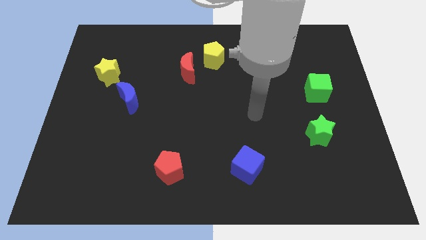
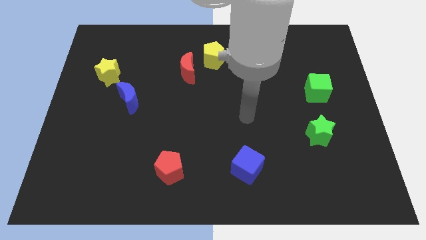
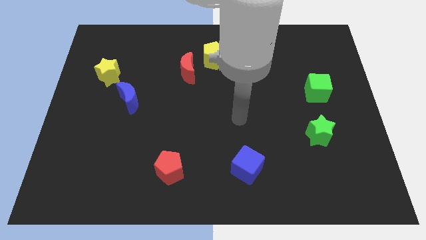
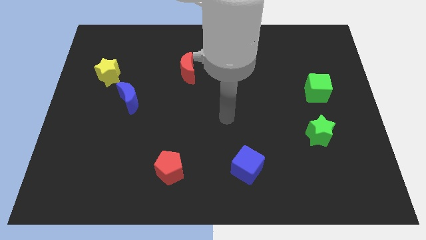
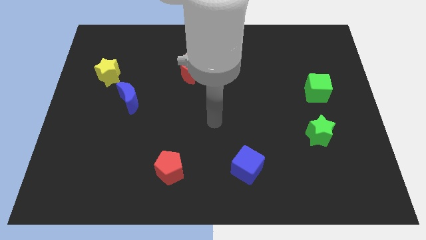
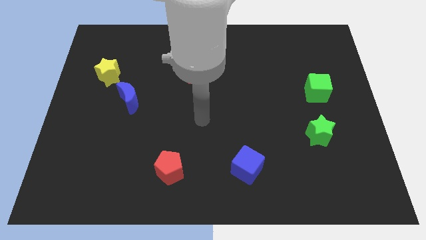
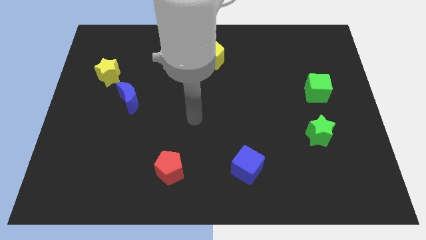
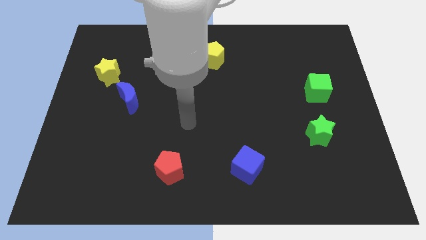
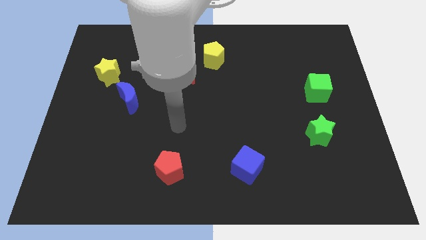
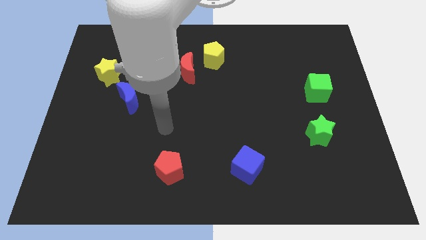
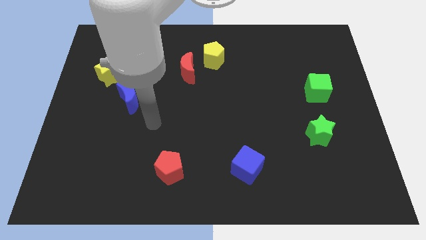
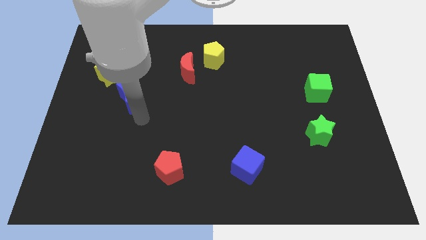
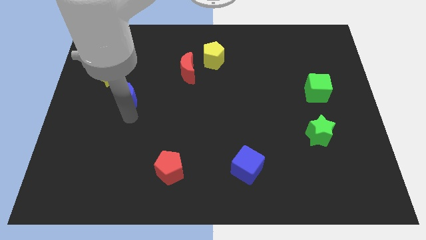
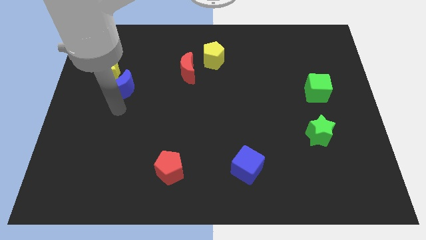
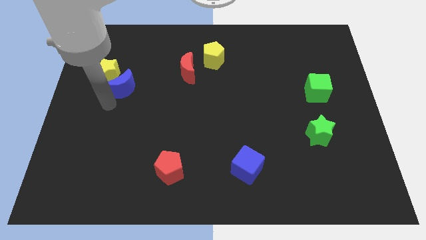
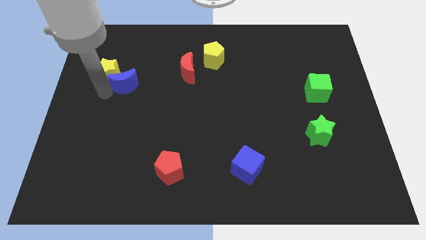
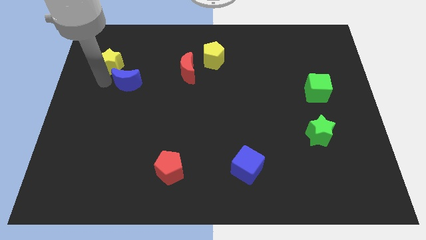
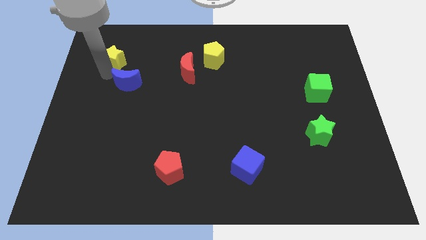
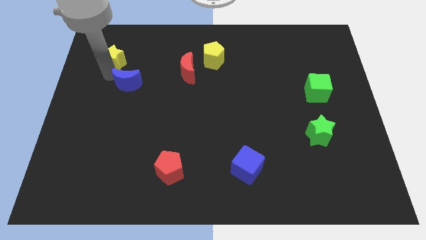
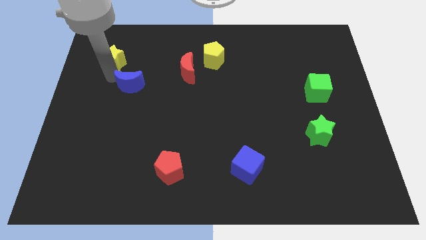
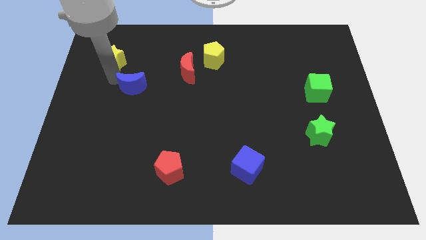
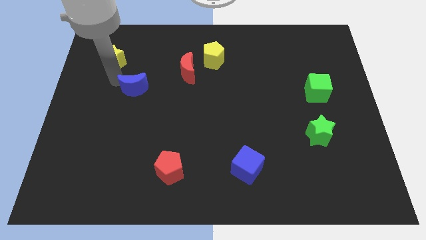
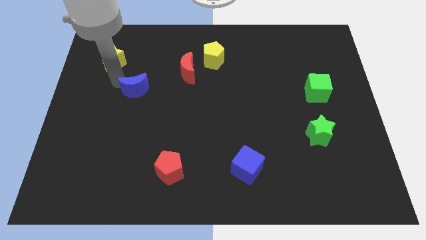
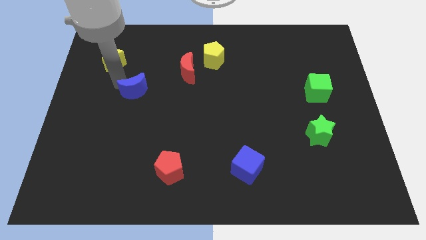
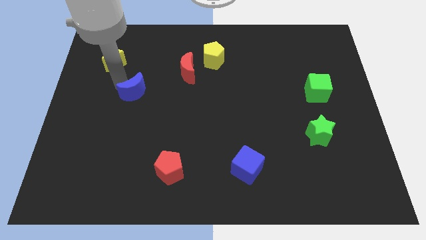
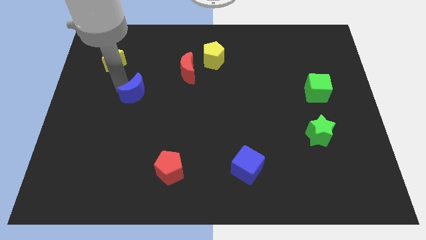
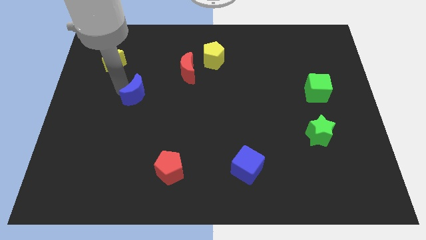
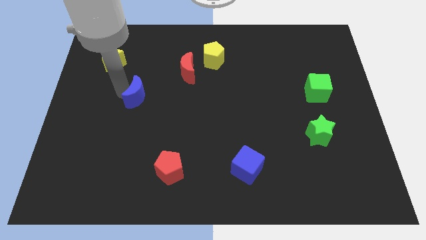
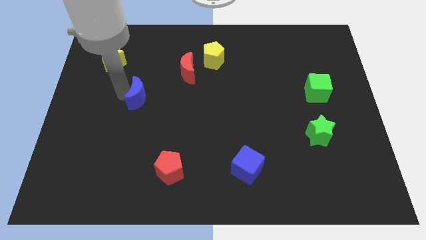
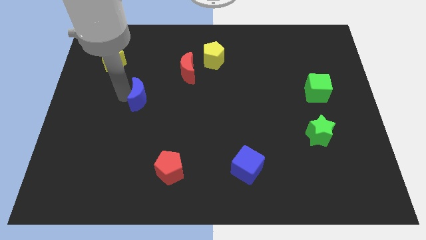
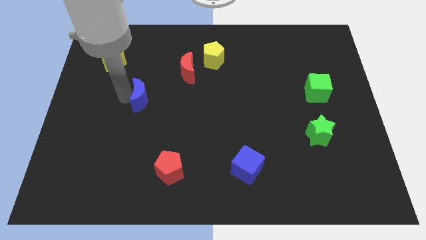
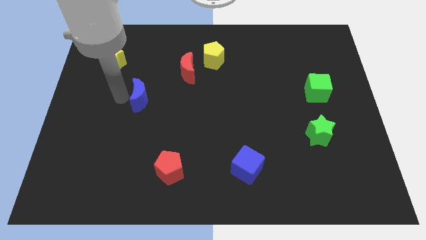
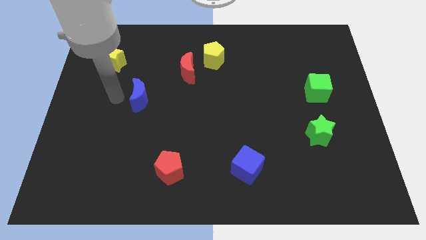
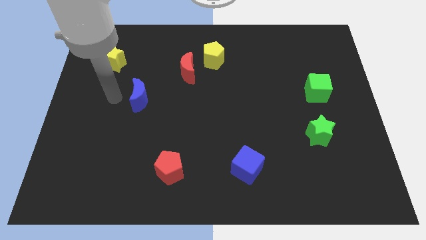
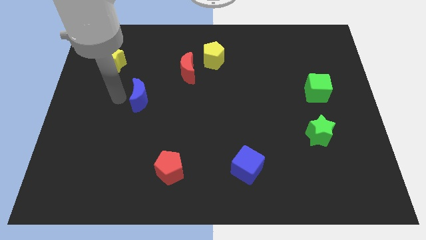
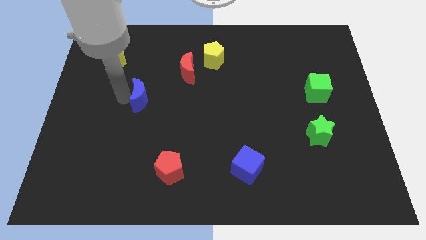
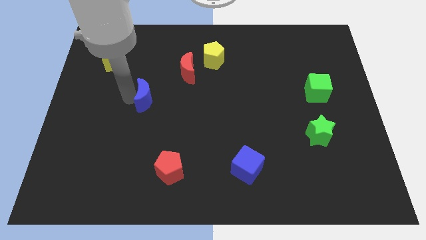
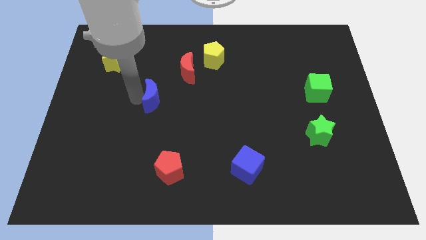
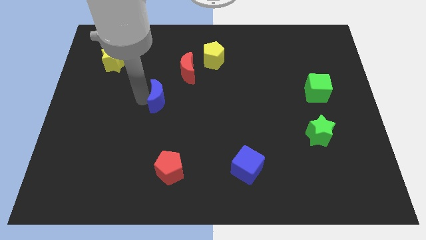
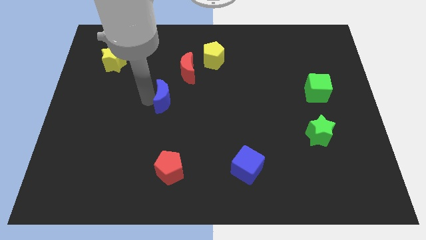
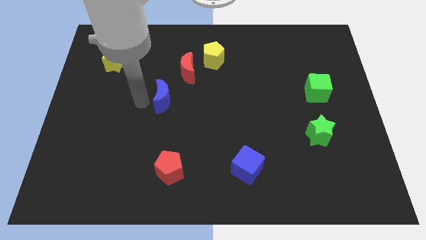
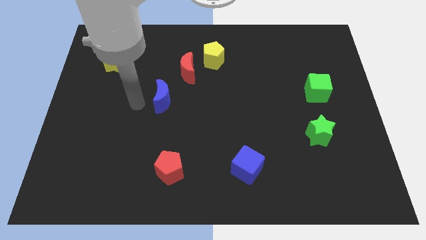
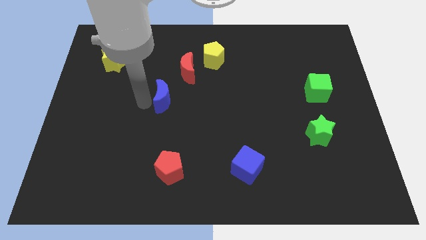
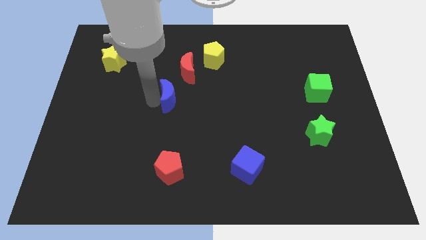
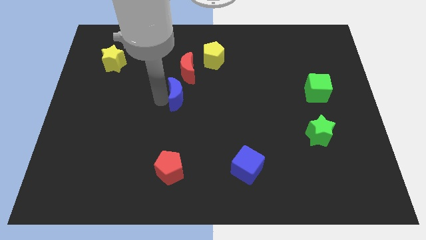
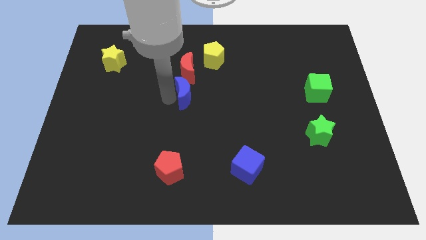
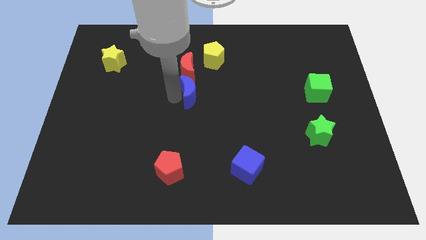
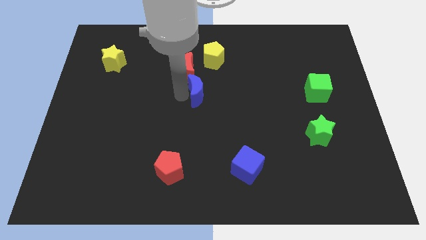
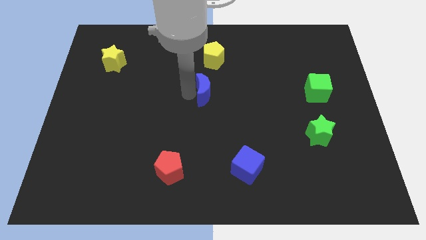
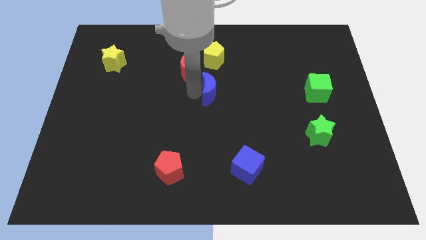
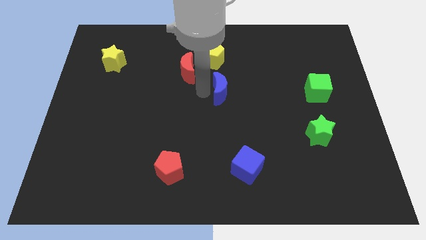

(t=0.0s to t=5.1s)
move the blue moon to the right

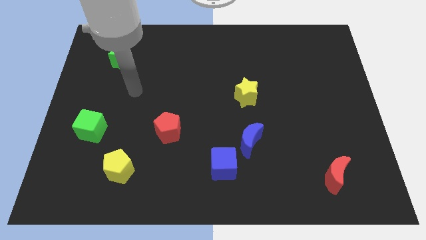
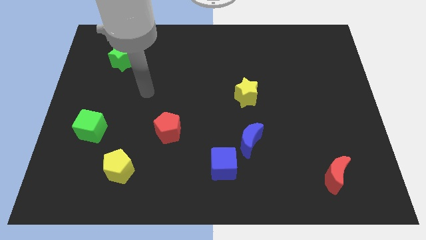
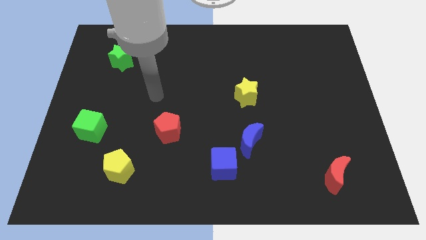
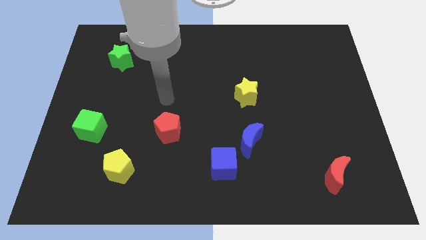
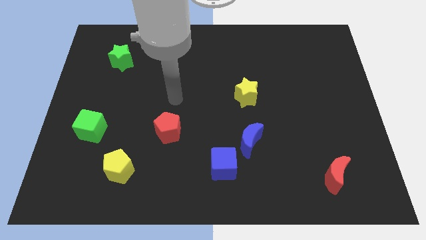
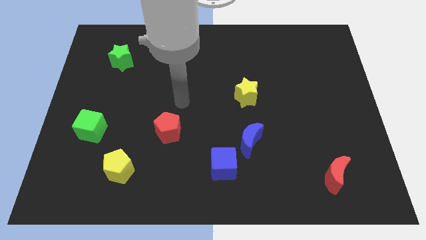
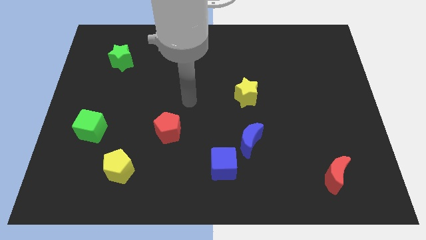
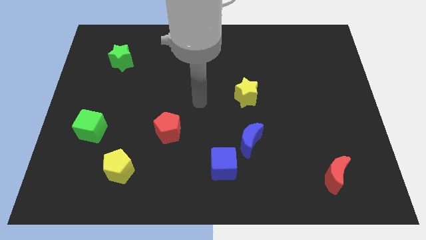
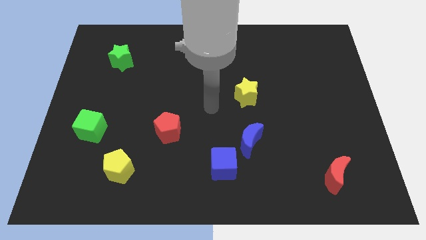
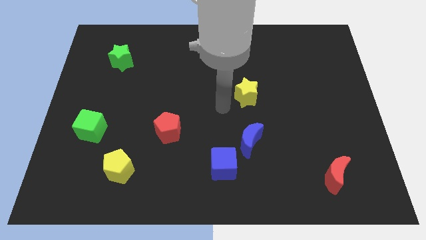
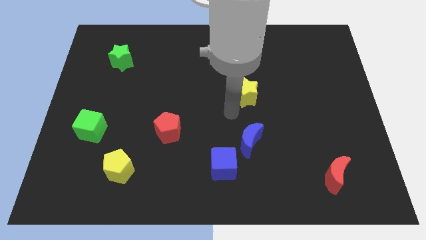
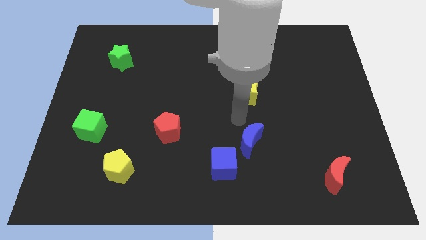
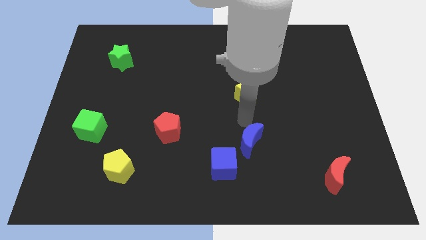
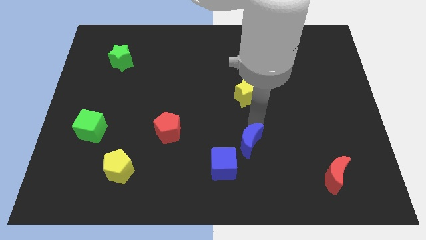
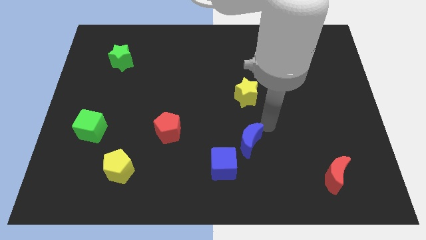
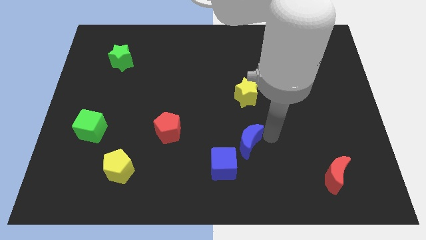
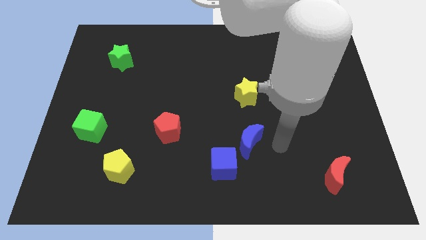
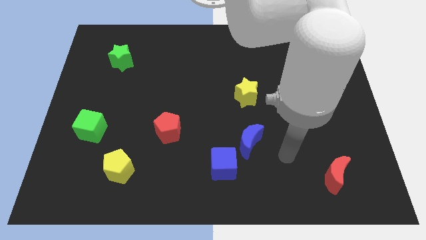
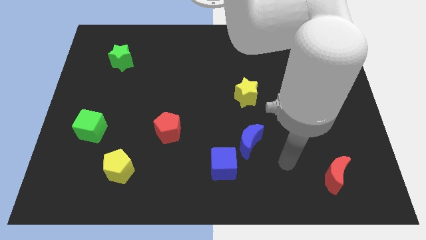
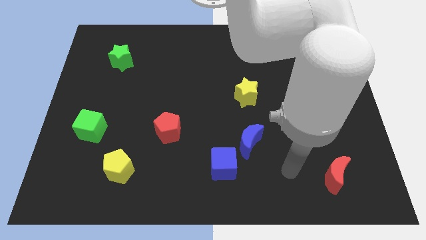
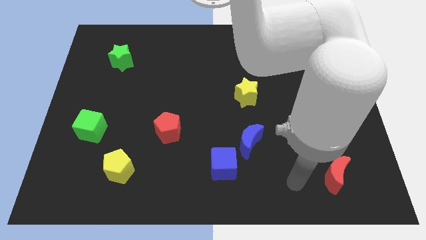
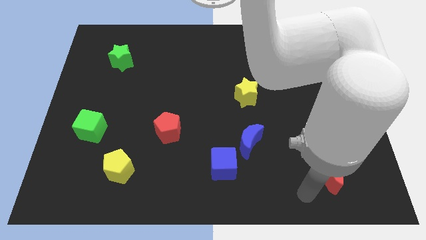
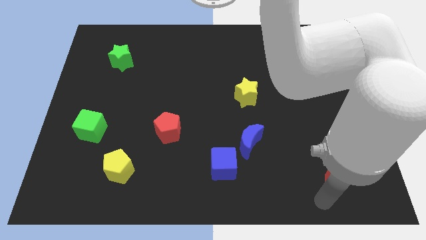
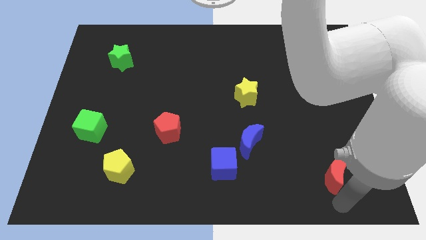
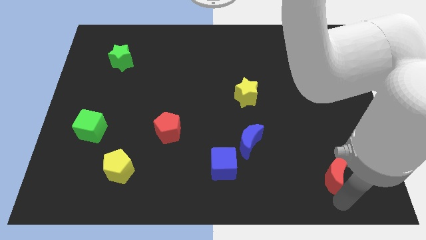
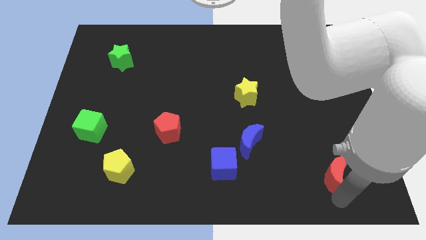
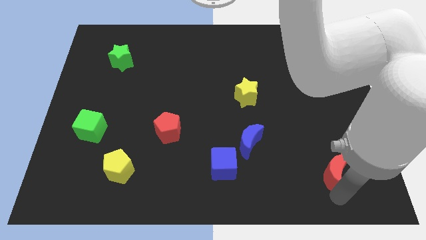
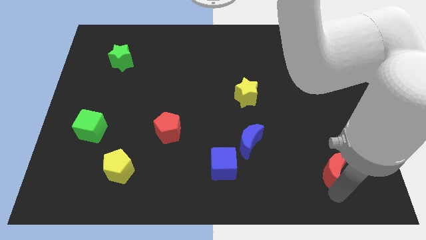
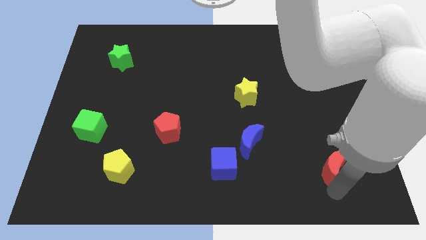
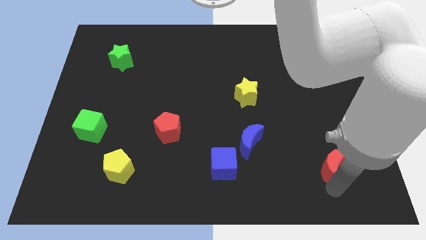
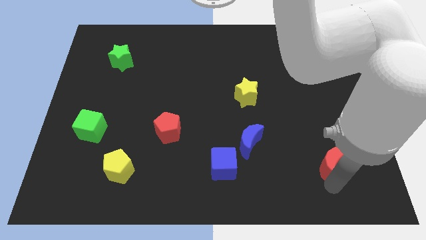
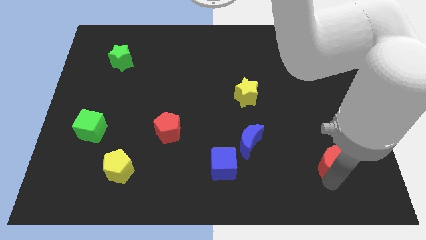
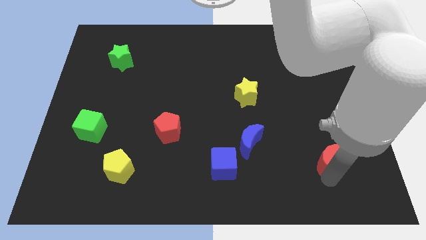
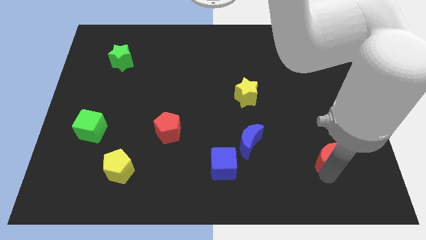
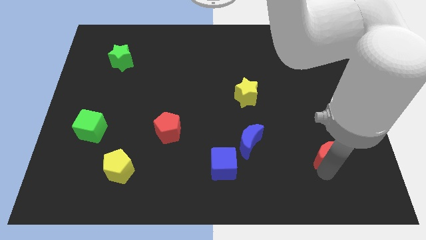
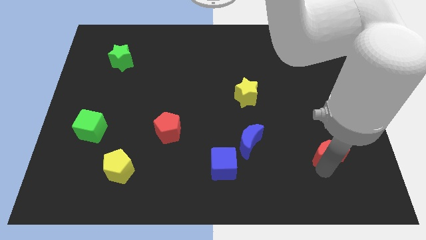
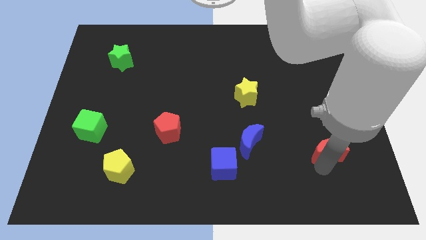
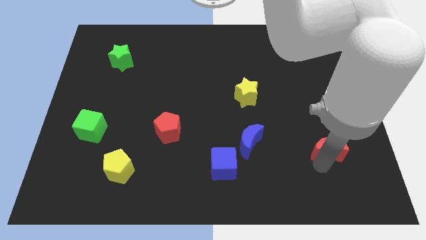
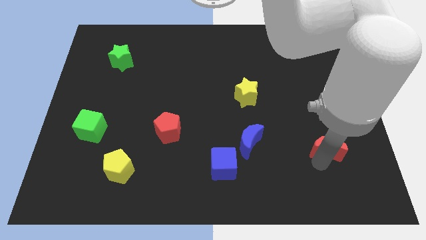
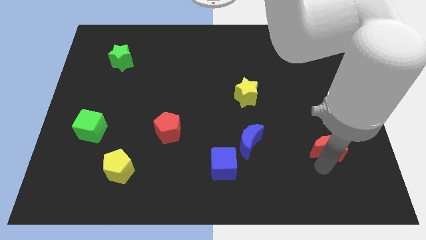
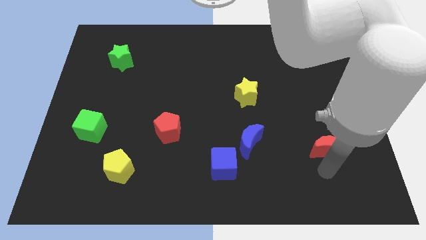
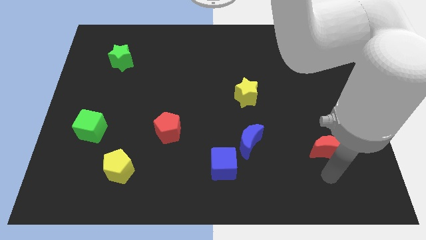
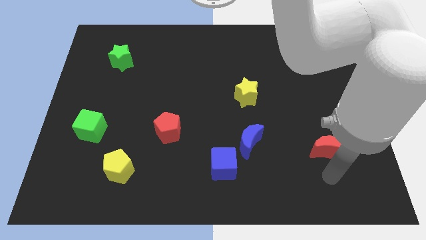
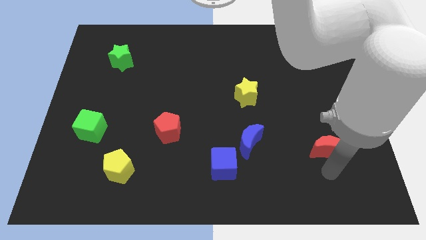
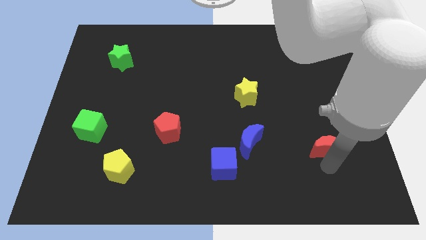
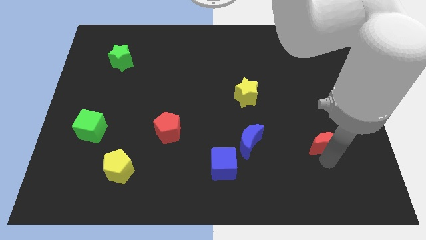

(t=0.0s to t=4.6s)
slightly move the red moon upwards
